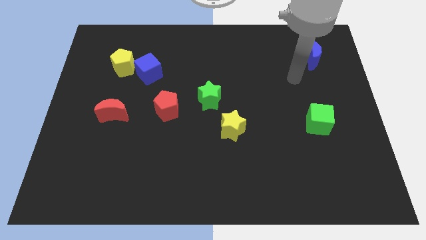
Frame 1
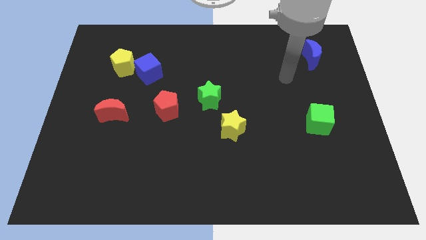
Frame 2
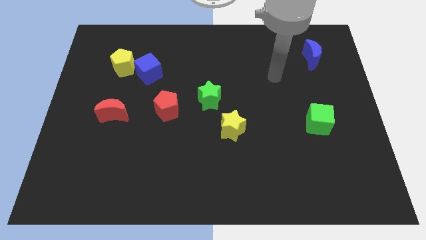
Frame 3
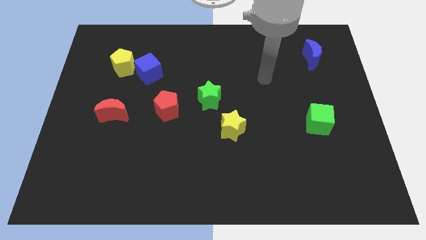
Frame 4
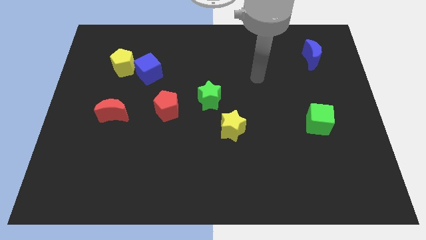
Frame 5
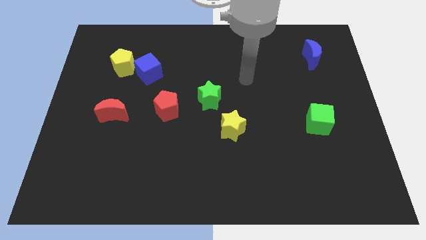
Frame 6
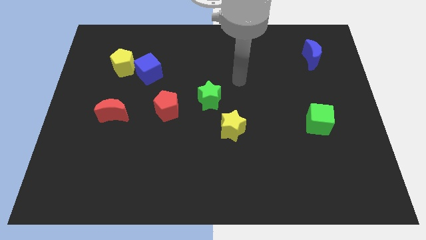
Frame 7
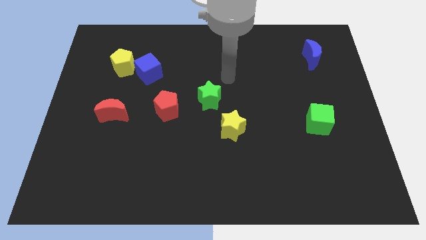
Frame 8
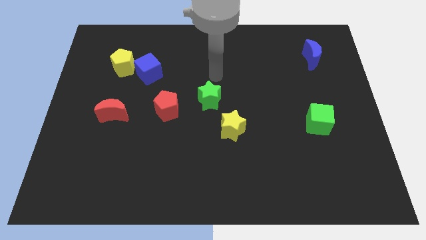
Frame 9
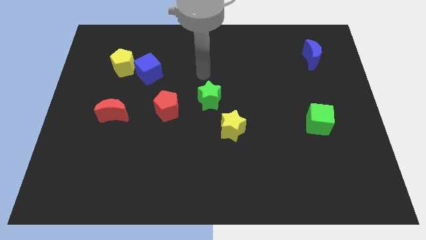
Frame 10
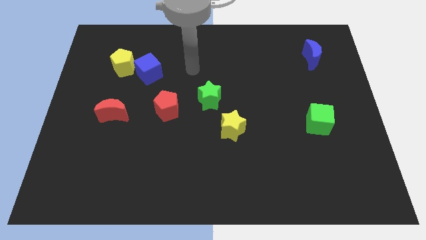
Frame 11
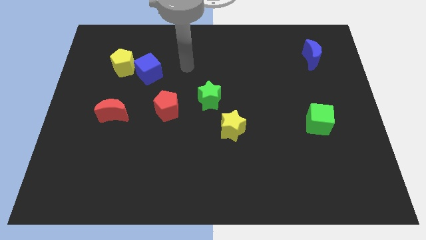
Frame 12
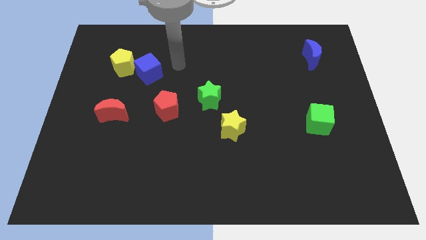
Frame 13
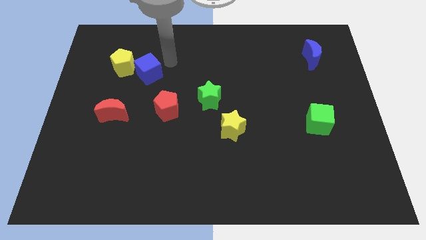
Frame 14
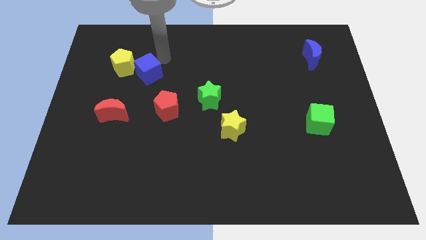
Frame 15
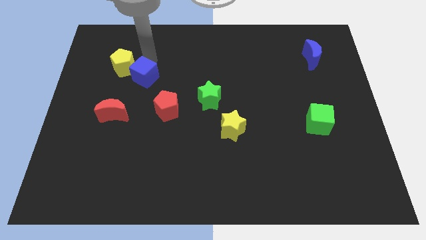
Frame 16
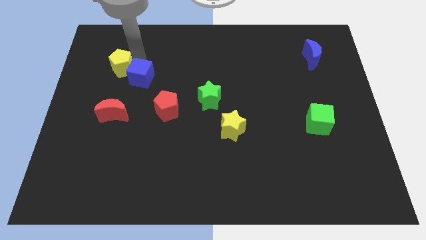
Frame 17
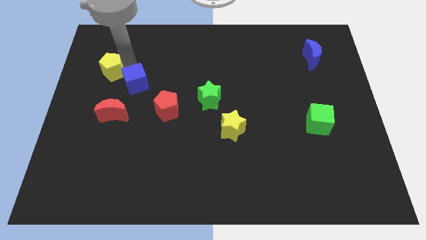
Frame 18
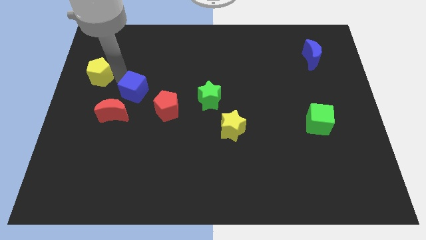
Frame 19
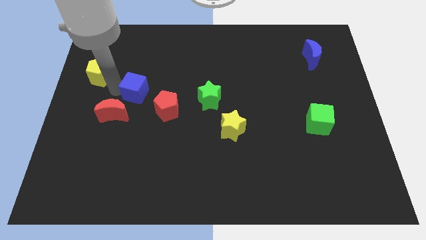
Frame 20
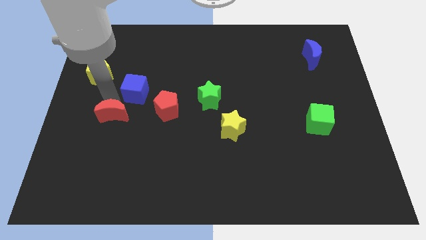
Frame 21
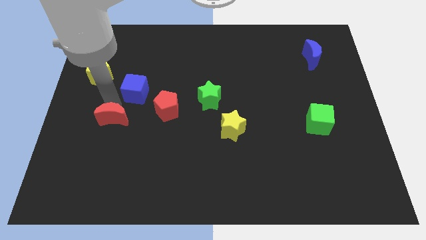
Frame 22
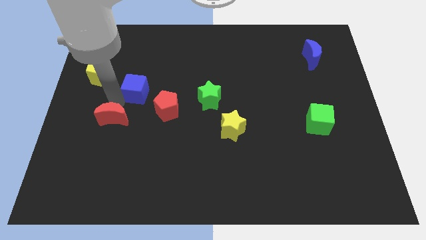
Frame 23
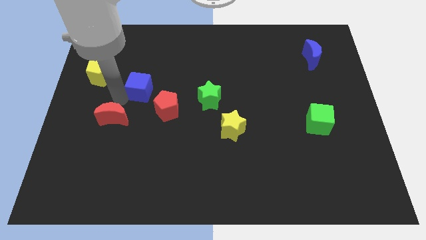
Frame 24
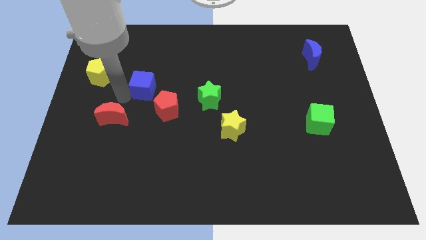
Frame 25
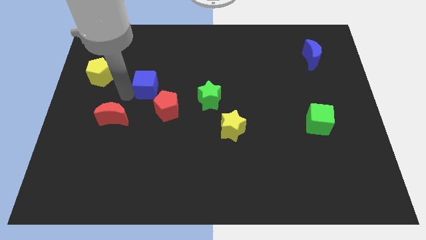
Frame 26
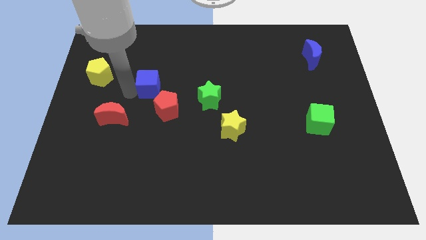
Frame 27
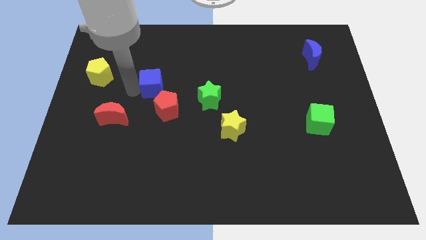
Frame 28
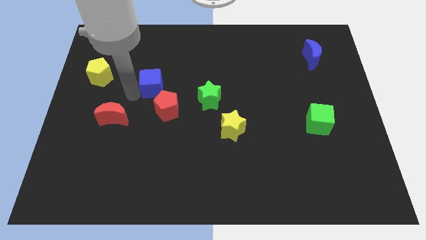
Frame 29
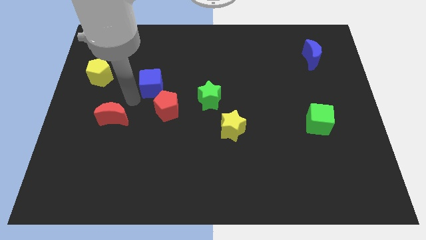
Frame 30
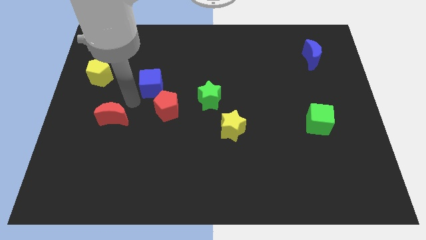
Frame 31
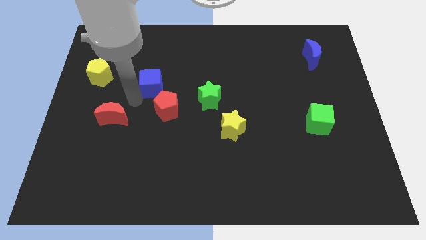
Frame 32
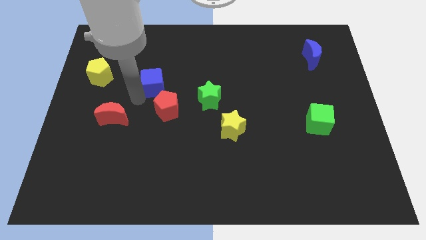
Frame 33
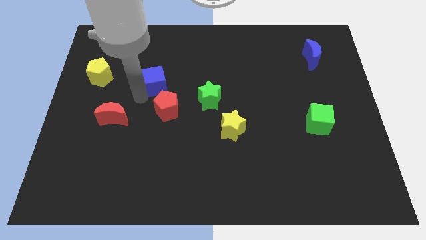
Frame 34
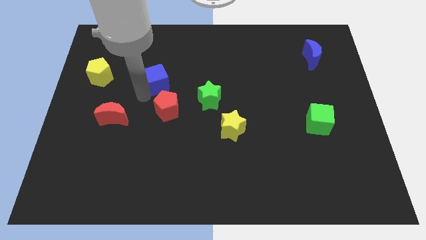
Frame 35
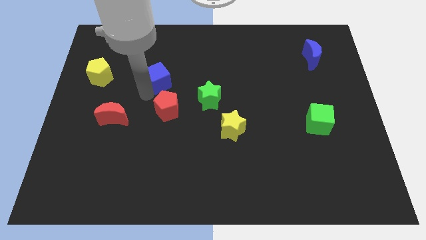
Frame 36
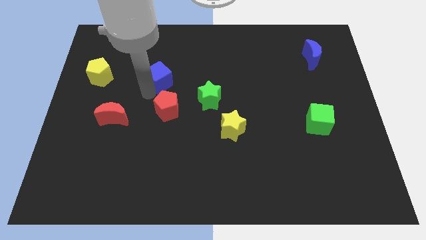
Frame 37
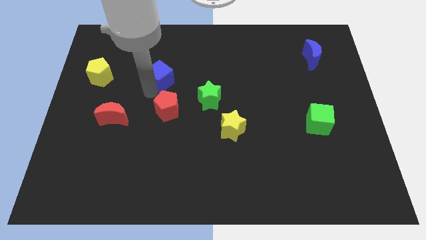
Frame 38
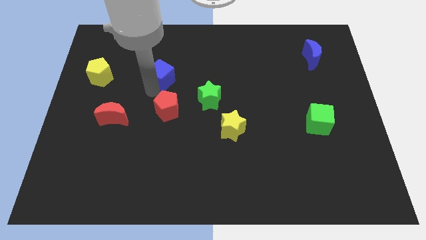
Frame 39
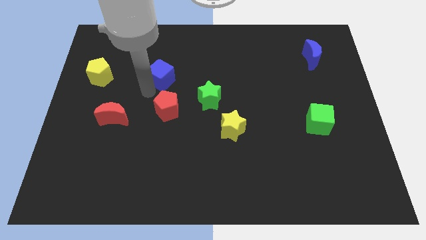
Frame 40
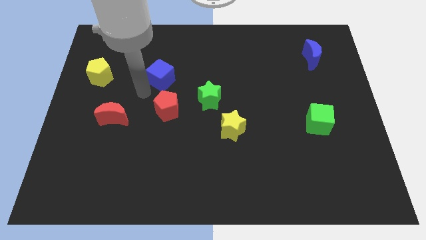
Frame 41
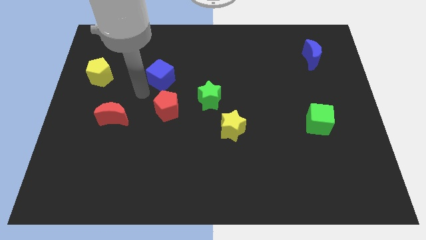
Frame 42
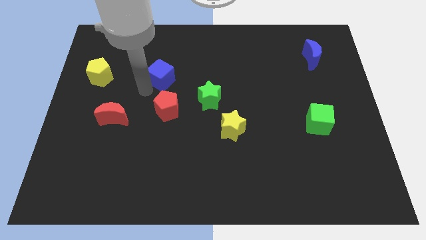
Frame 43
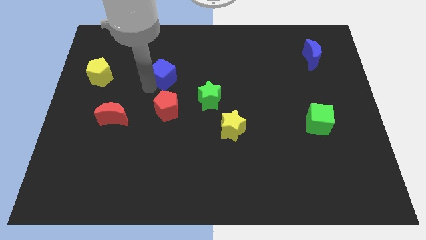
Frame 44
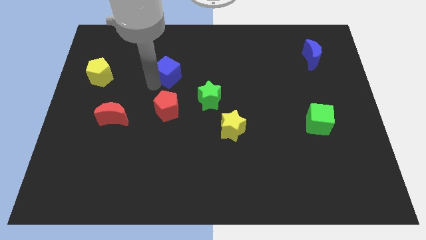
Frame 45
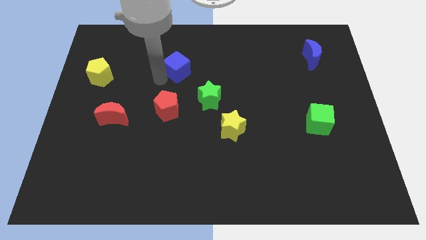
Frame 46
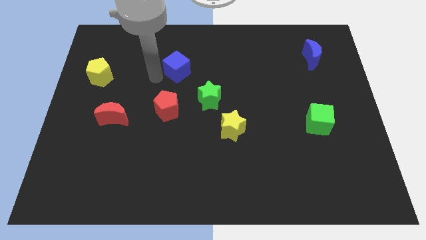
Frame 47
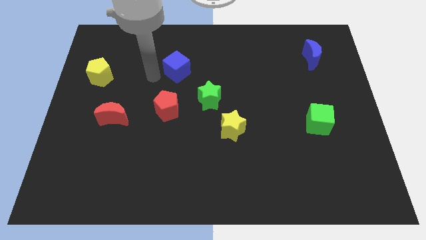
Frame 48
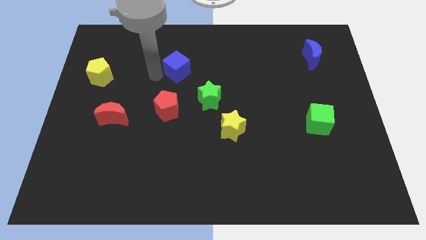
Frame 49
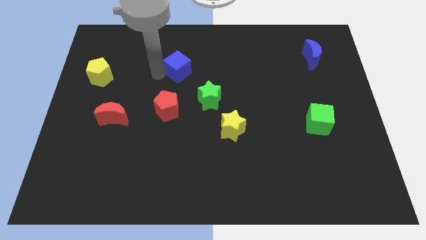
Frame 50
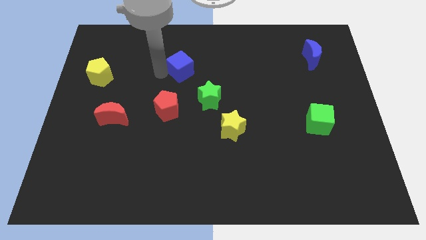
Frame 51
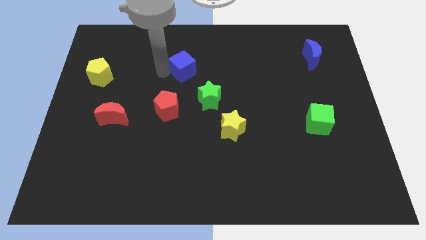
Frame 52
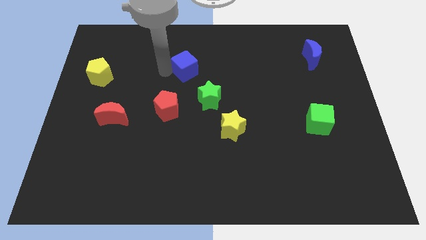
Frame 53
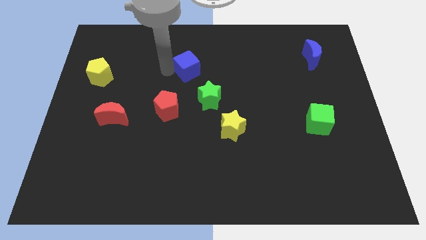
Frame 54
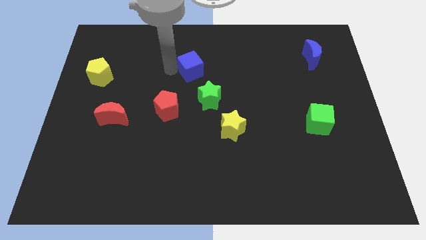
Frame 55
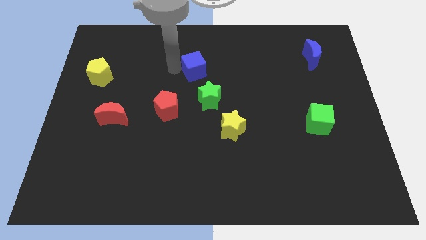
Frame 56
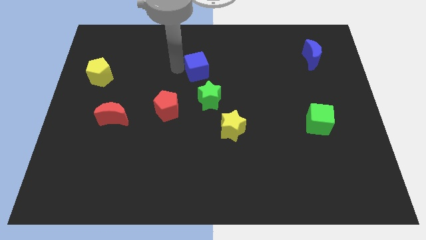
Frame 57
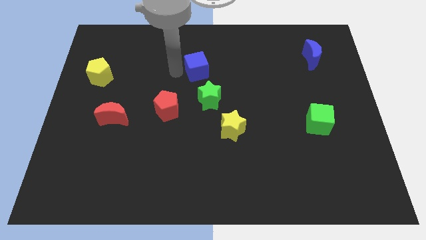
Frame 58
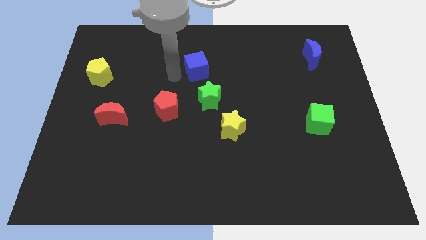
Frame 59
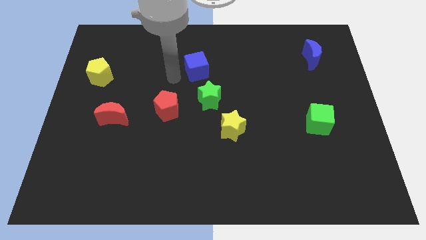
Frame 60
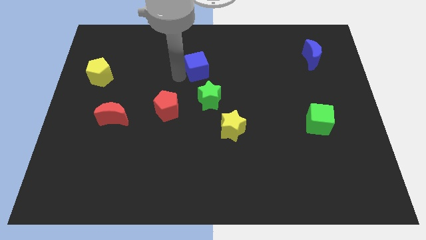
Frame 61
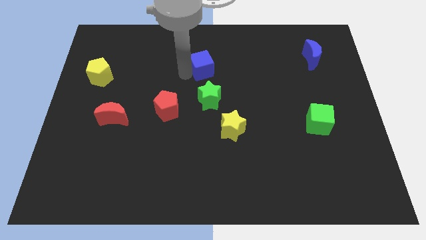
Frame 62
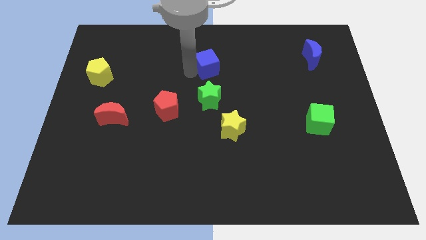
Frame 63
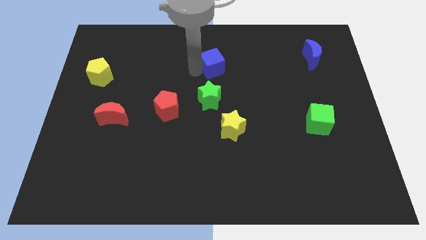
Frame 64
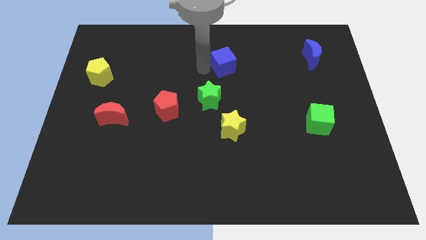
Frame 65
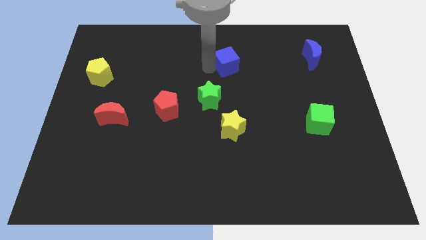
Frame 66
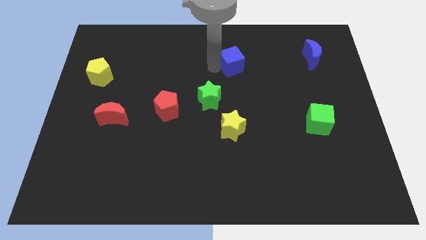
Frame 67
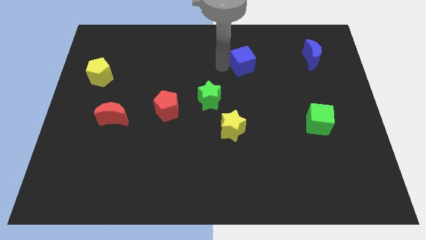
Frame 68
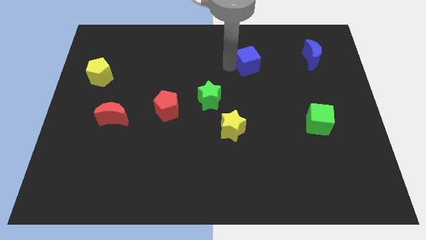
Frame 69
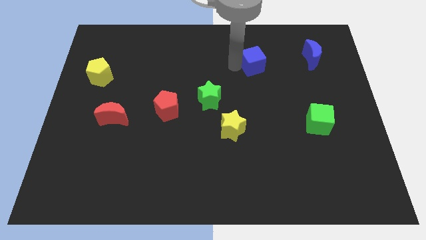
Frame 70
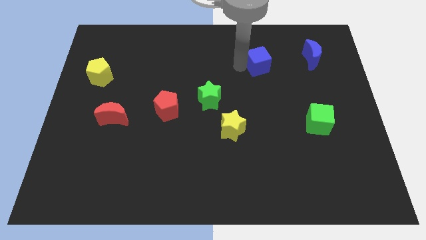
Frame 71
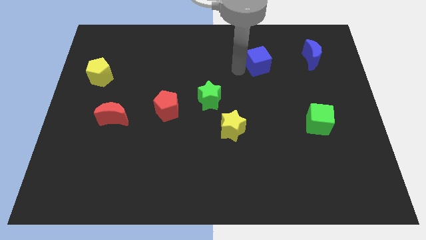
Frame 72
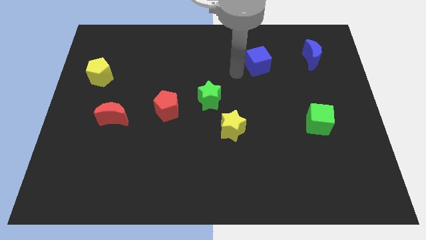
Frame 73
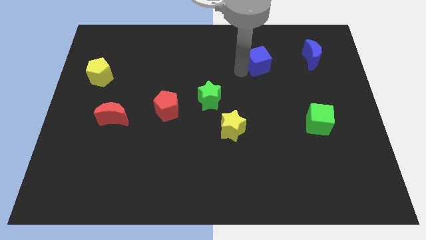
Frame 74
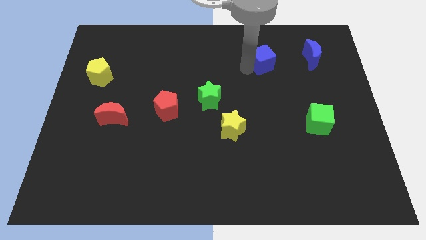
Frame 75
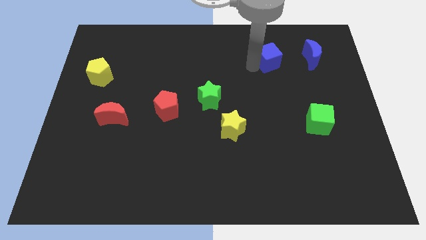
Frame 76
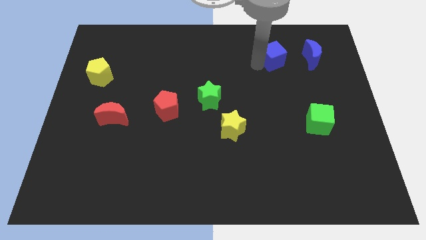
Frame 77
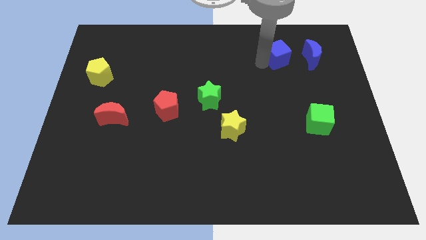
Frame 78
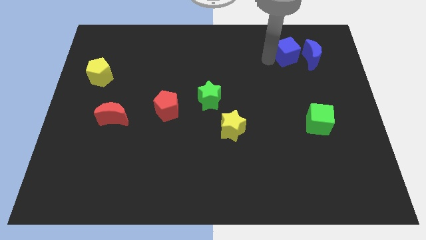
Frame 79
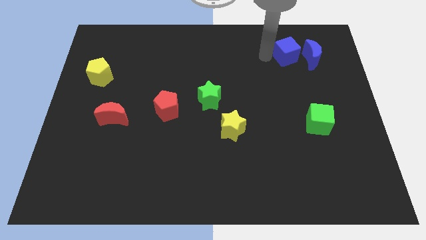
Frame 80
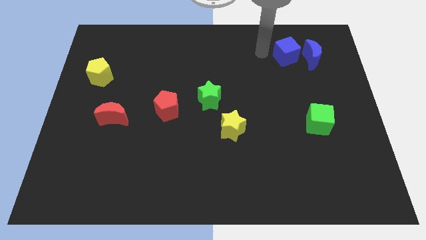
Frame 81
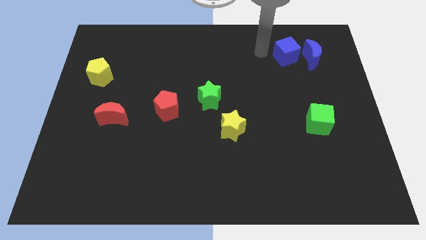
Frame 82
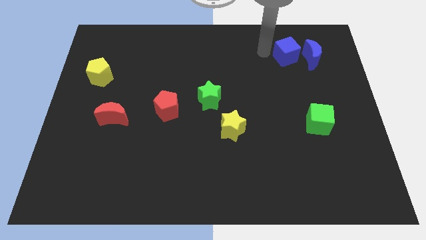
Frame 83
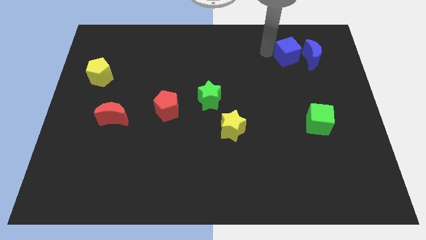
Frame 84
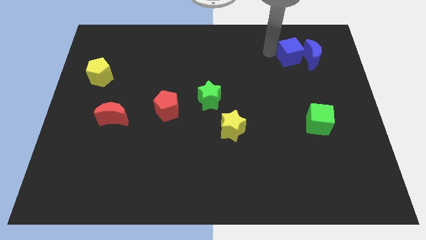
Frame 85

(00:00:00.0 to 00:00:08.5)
slide the blue cube close to the blue moon
